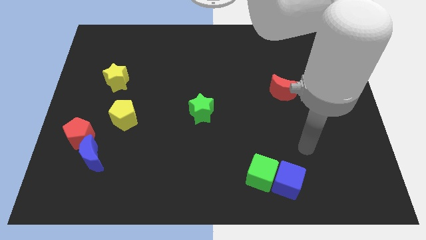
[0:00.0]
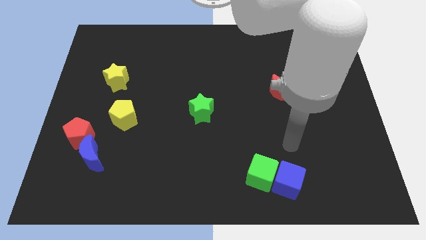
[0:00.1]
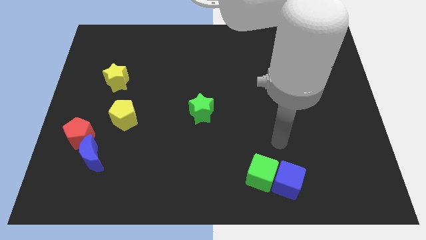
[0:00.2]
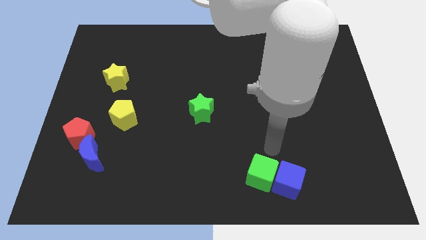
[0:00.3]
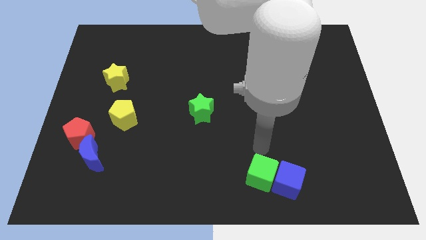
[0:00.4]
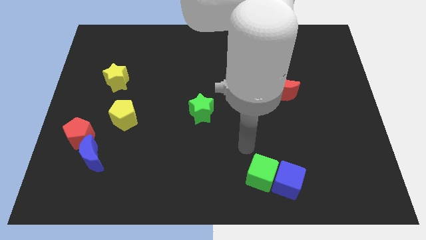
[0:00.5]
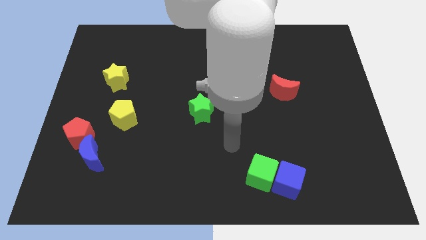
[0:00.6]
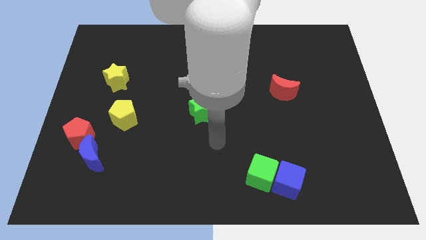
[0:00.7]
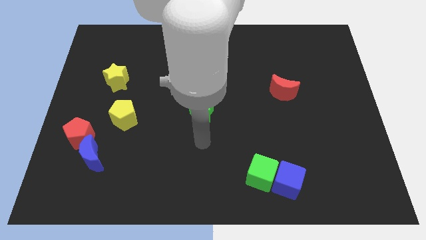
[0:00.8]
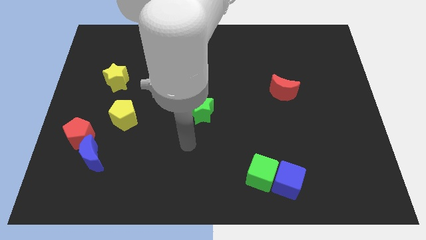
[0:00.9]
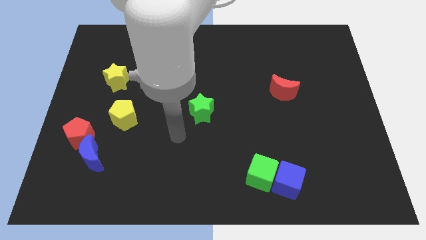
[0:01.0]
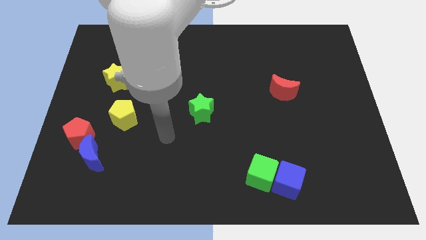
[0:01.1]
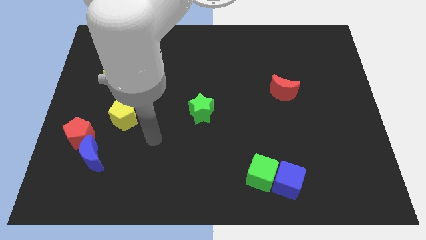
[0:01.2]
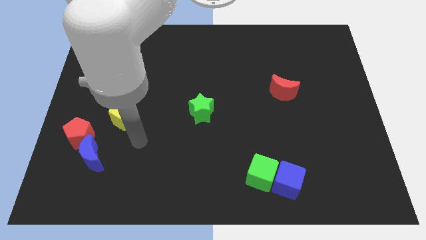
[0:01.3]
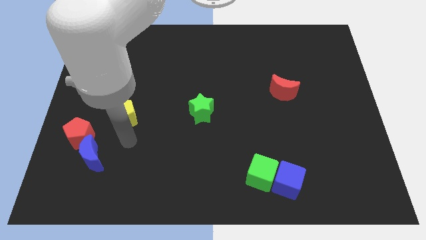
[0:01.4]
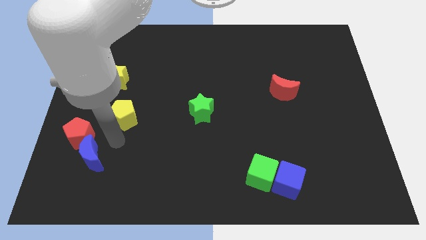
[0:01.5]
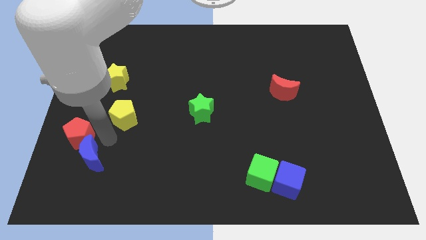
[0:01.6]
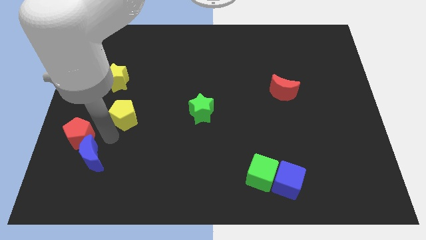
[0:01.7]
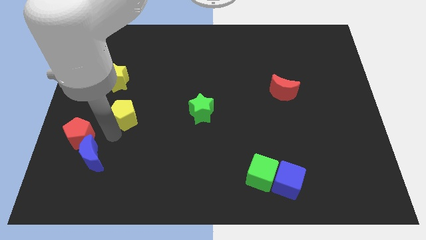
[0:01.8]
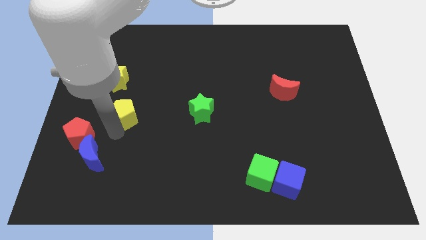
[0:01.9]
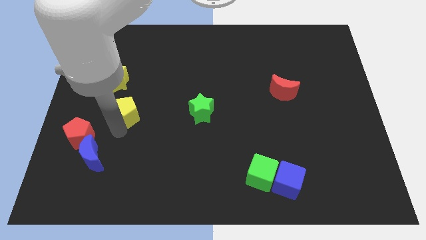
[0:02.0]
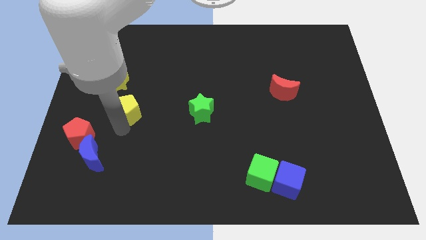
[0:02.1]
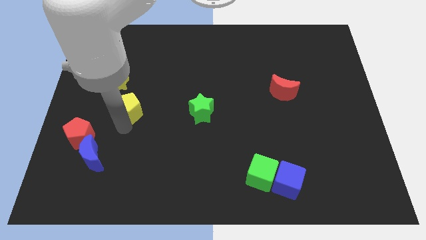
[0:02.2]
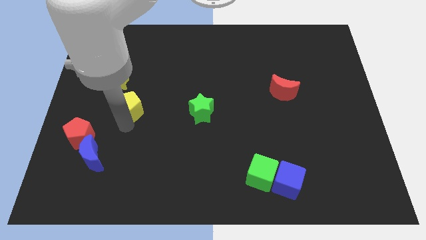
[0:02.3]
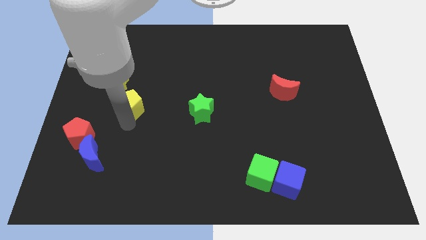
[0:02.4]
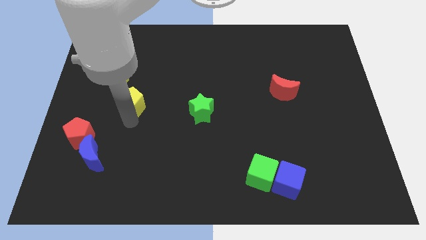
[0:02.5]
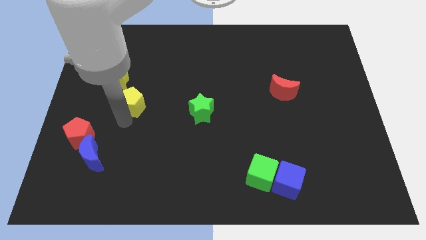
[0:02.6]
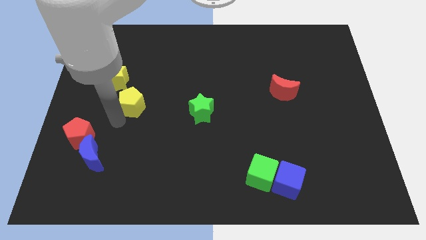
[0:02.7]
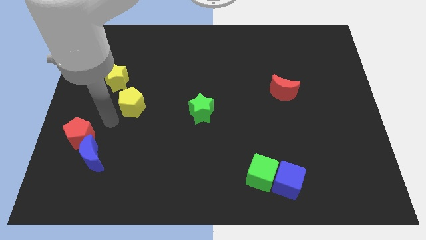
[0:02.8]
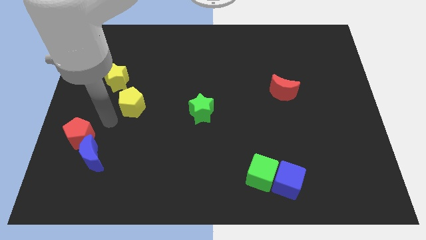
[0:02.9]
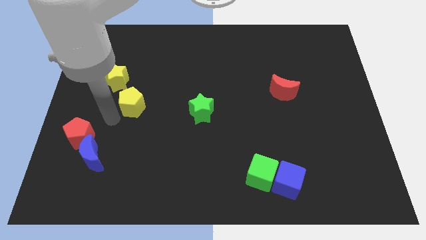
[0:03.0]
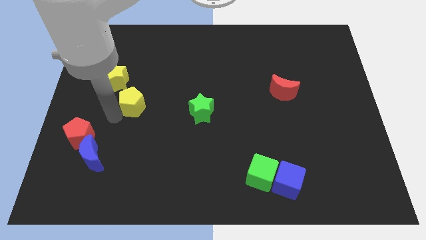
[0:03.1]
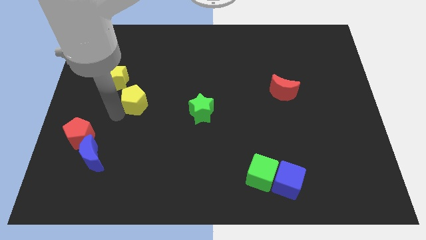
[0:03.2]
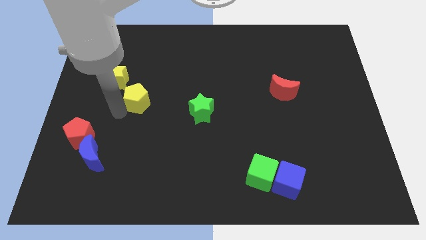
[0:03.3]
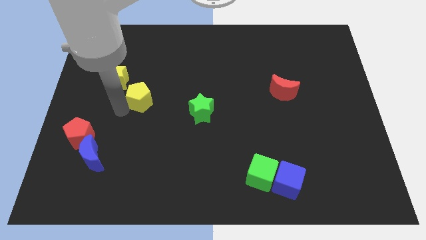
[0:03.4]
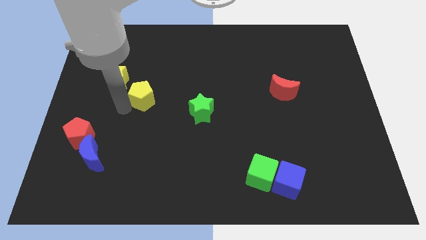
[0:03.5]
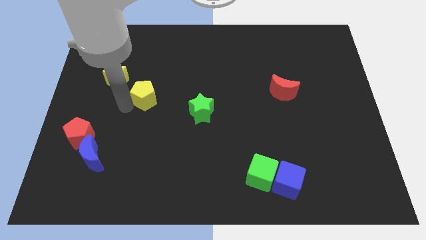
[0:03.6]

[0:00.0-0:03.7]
slightly slide the yellow pentagon up and then to the right

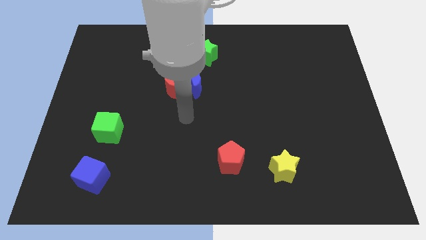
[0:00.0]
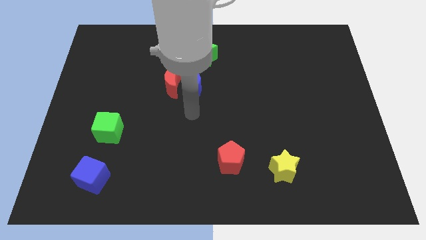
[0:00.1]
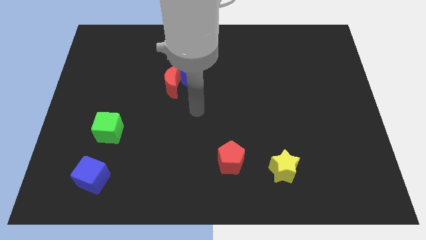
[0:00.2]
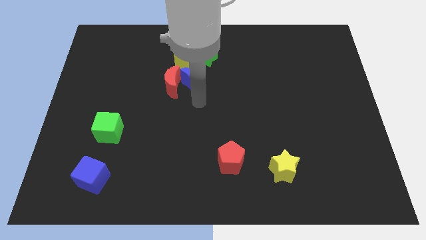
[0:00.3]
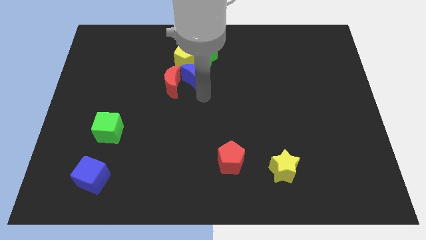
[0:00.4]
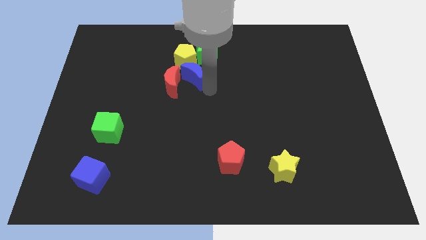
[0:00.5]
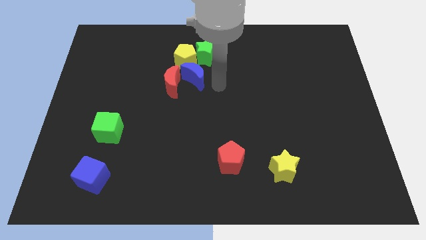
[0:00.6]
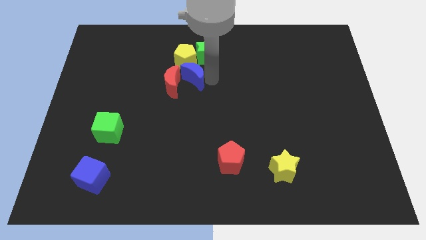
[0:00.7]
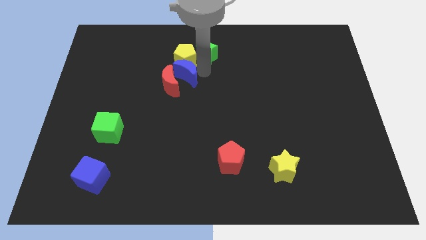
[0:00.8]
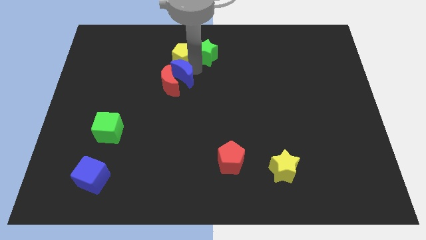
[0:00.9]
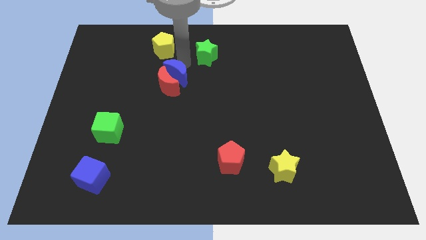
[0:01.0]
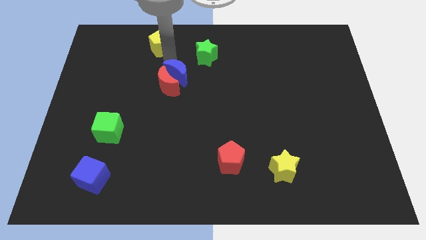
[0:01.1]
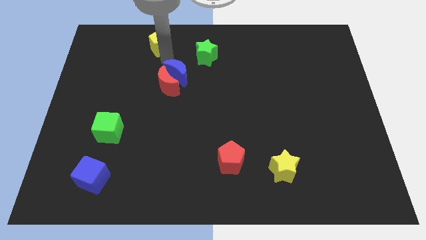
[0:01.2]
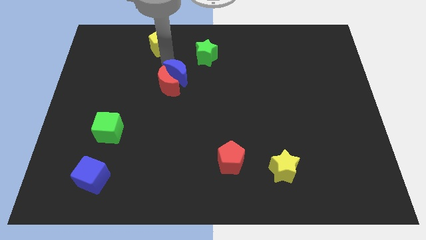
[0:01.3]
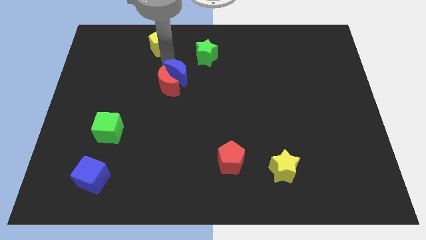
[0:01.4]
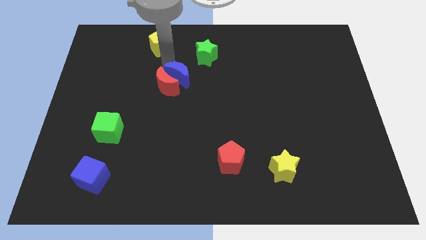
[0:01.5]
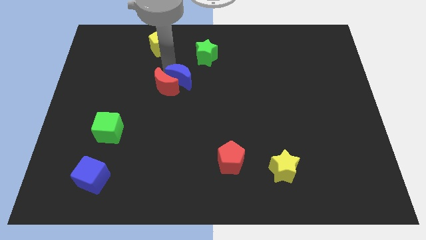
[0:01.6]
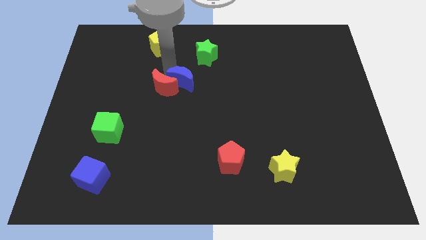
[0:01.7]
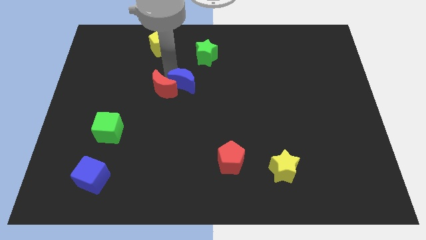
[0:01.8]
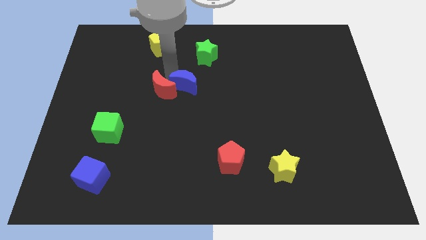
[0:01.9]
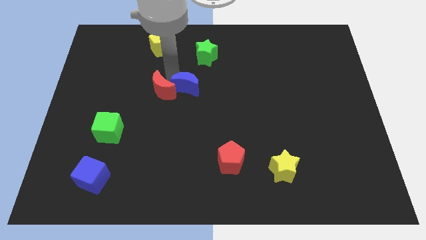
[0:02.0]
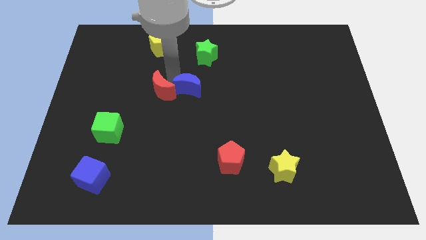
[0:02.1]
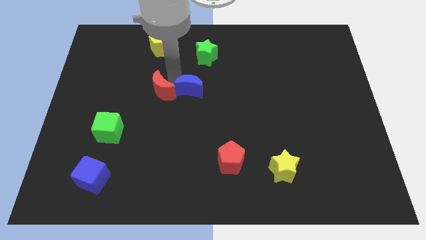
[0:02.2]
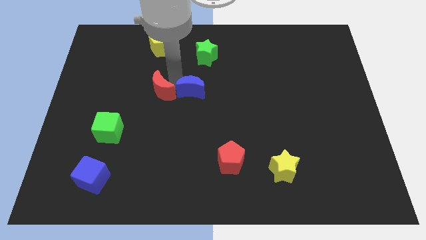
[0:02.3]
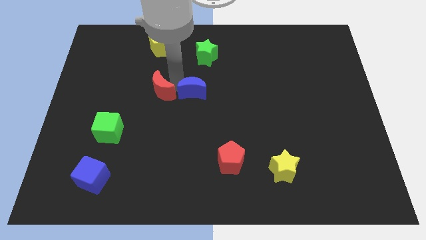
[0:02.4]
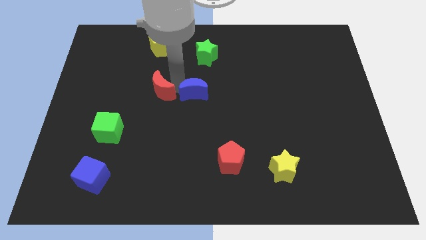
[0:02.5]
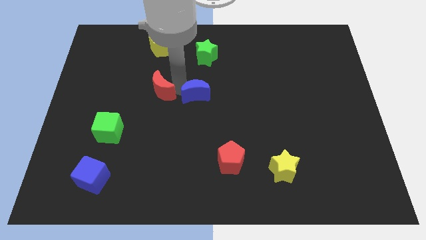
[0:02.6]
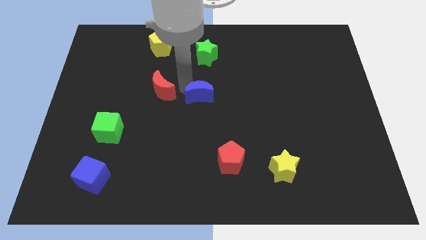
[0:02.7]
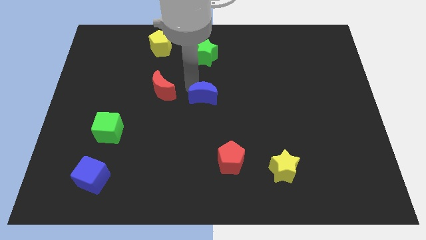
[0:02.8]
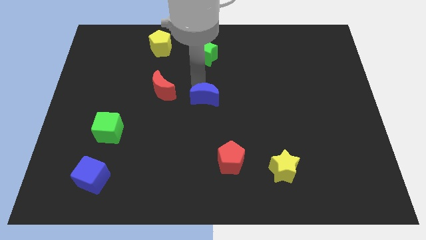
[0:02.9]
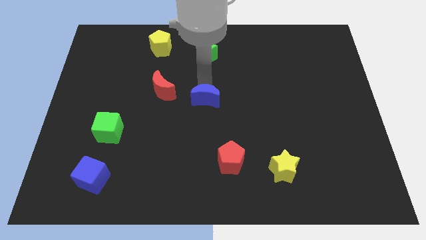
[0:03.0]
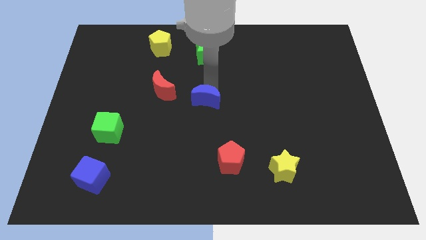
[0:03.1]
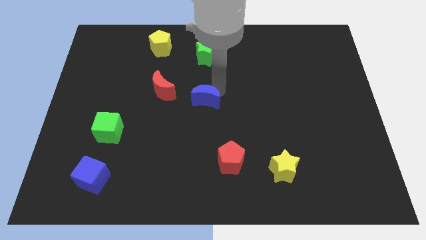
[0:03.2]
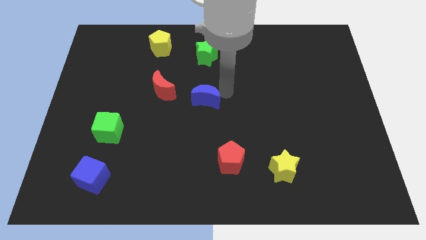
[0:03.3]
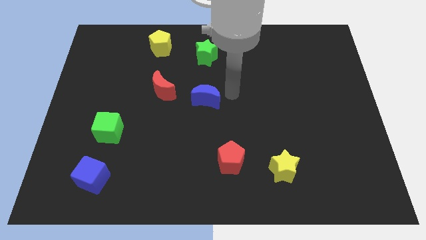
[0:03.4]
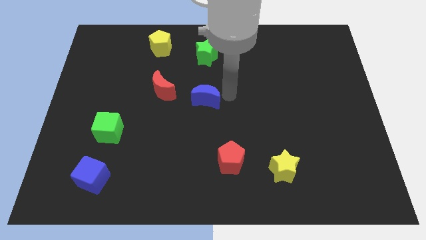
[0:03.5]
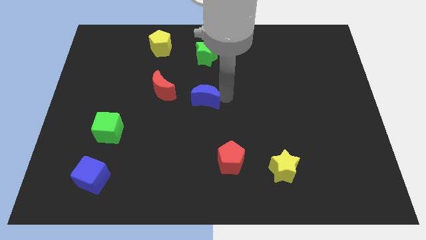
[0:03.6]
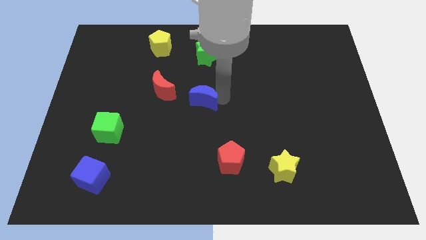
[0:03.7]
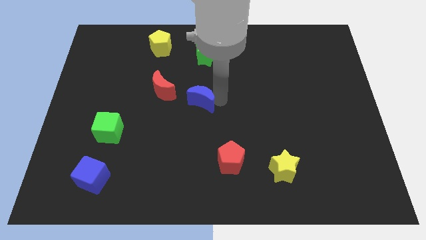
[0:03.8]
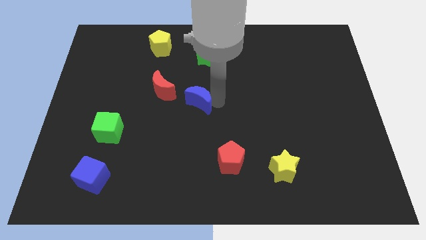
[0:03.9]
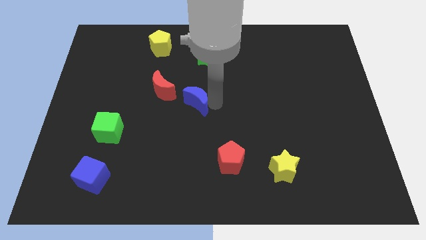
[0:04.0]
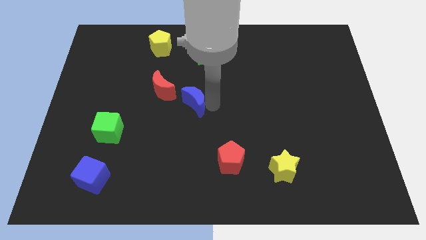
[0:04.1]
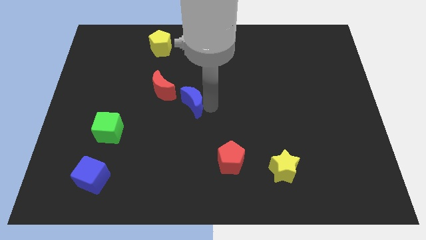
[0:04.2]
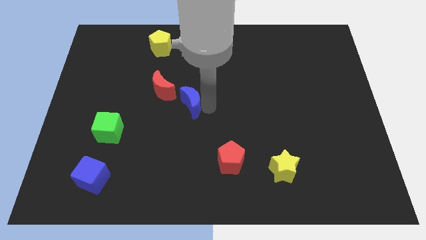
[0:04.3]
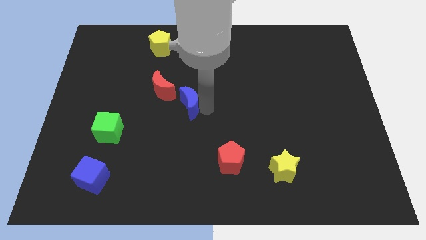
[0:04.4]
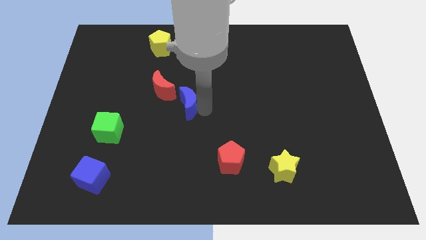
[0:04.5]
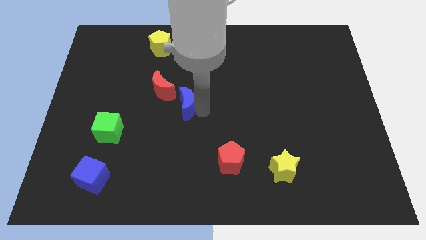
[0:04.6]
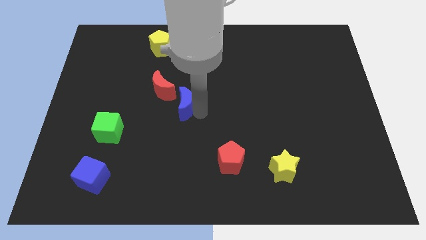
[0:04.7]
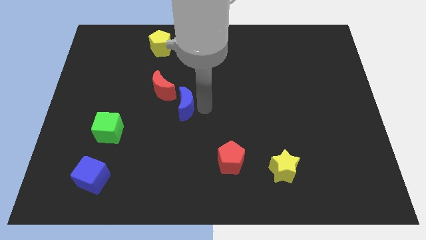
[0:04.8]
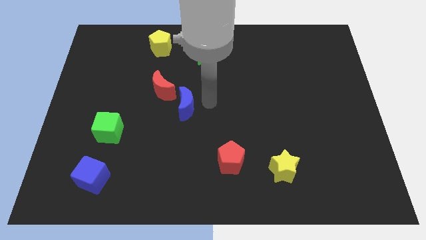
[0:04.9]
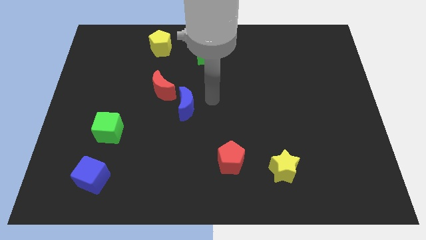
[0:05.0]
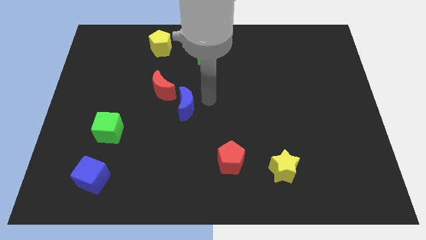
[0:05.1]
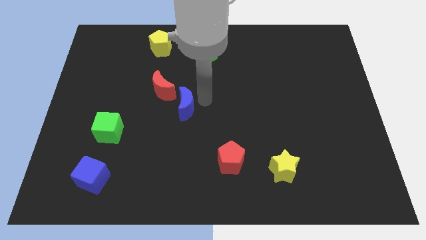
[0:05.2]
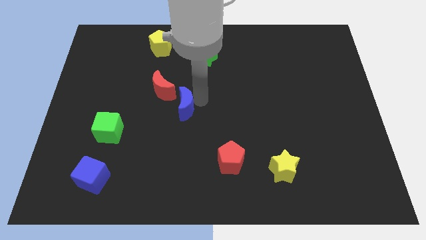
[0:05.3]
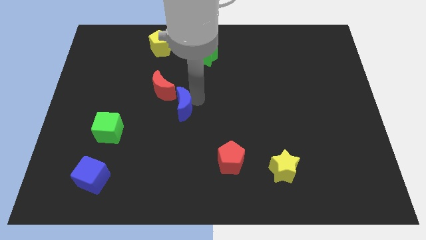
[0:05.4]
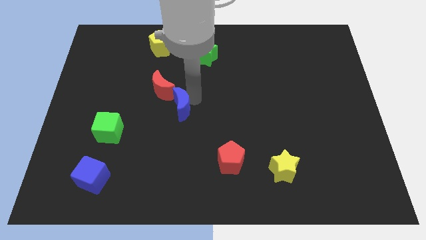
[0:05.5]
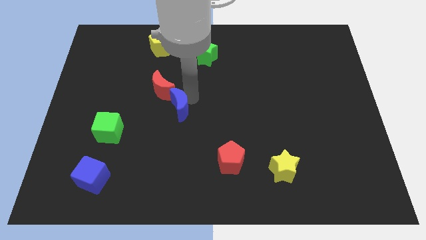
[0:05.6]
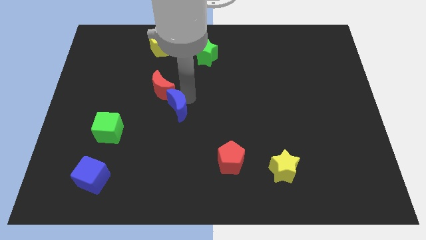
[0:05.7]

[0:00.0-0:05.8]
slightly push the blue moon down and to the left diagonally
